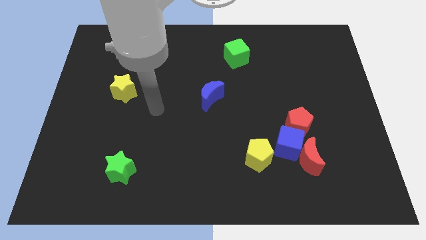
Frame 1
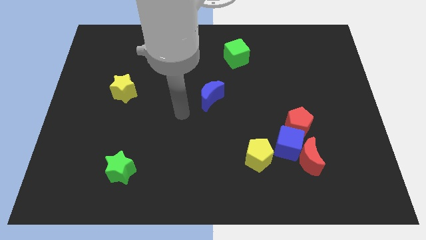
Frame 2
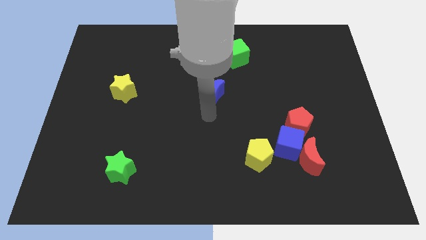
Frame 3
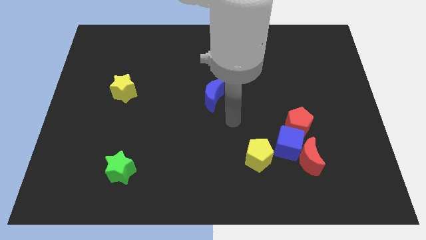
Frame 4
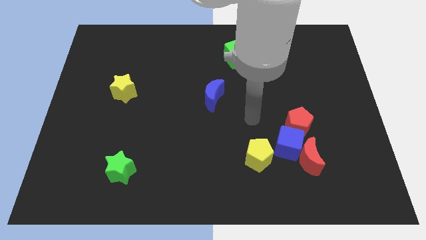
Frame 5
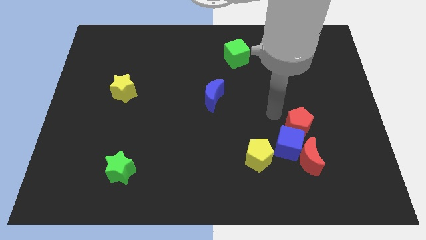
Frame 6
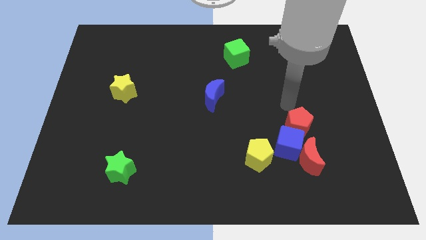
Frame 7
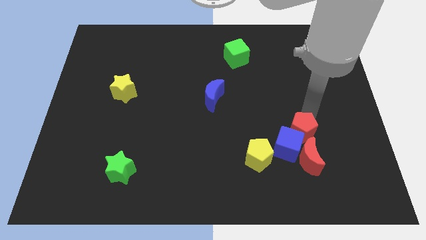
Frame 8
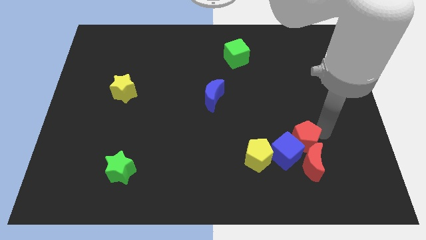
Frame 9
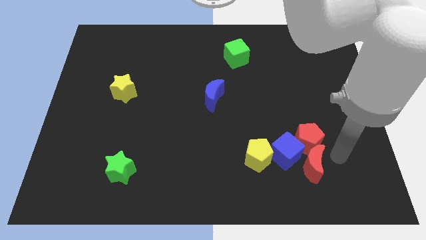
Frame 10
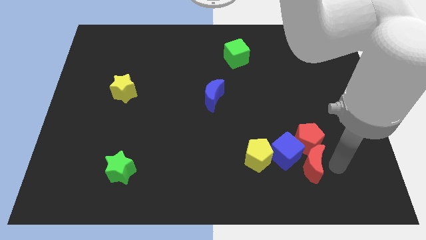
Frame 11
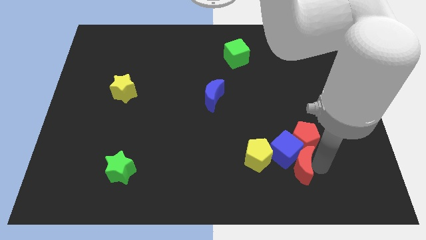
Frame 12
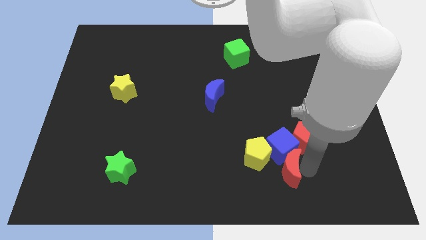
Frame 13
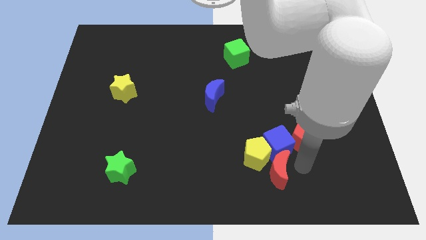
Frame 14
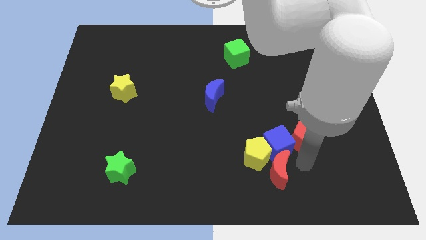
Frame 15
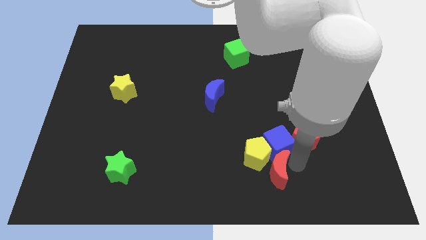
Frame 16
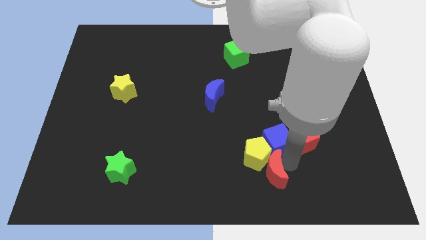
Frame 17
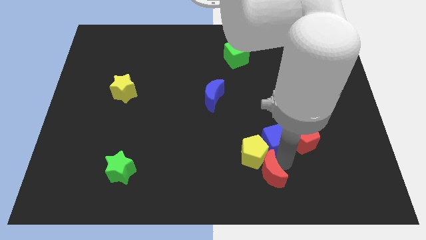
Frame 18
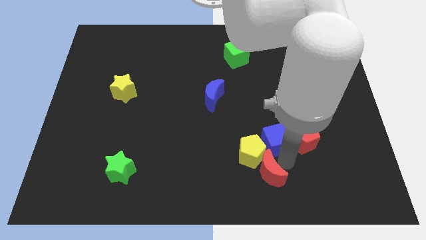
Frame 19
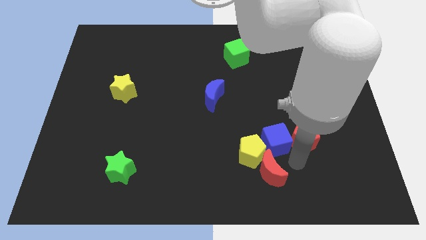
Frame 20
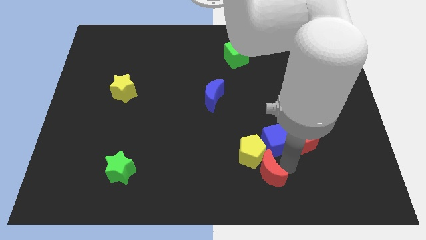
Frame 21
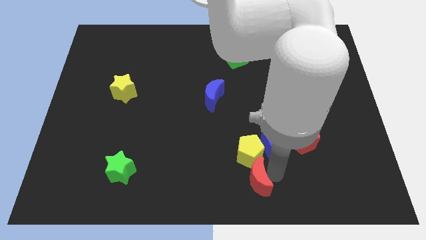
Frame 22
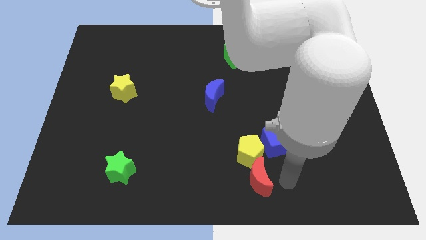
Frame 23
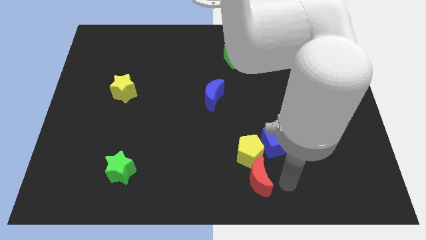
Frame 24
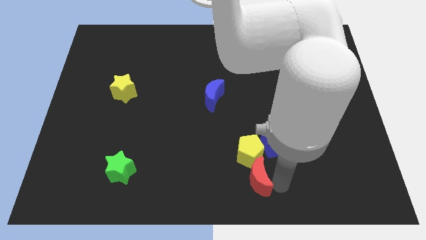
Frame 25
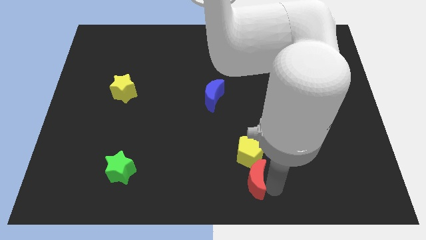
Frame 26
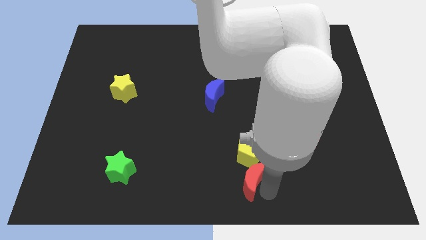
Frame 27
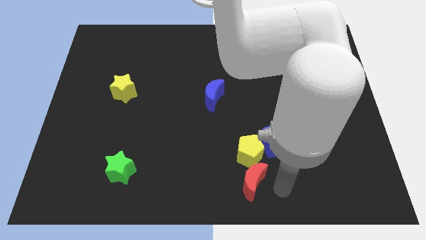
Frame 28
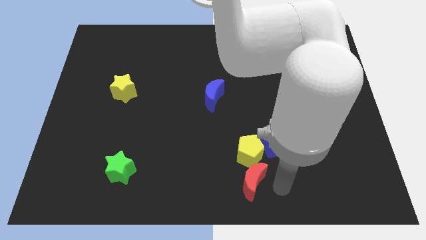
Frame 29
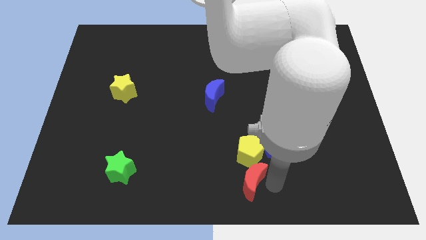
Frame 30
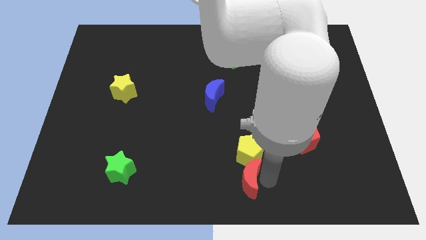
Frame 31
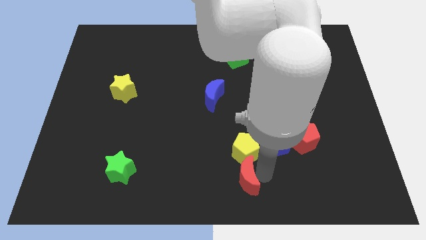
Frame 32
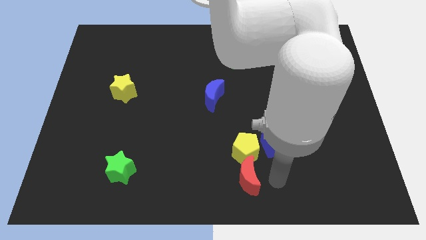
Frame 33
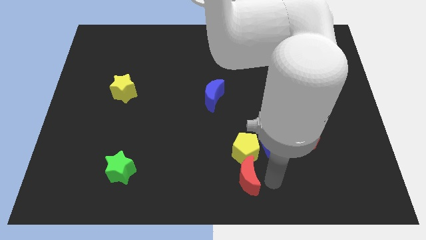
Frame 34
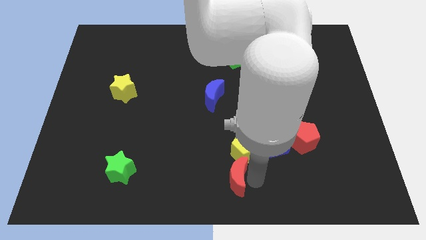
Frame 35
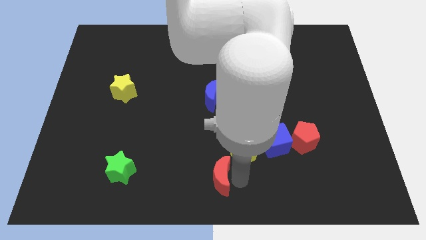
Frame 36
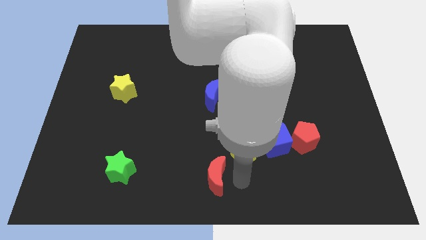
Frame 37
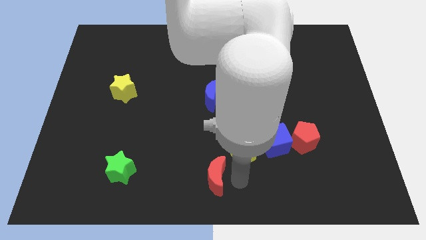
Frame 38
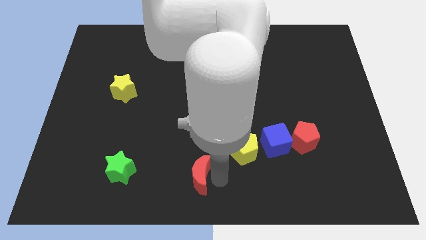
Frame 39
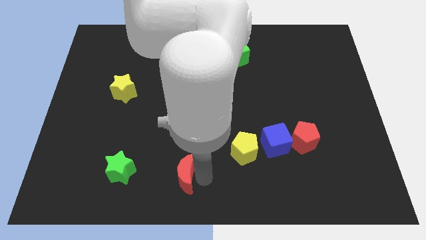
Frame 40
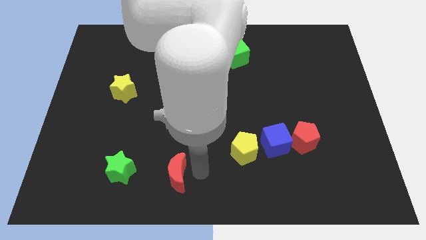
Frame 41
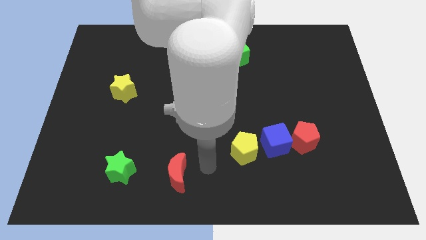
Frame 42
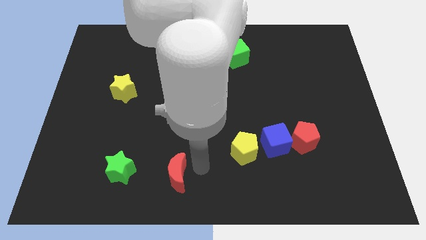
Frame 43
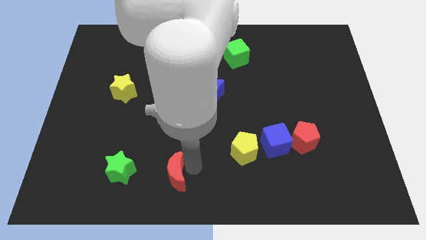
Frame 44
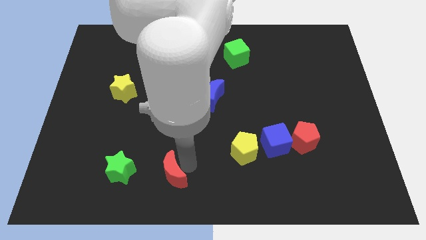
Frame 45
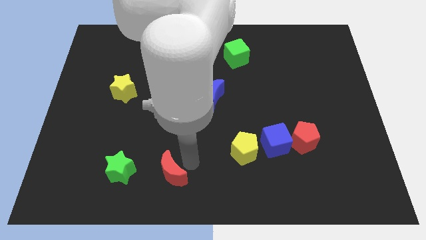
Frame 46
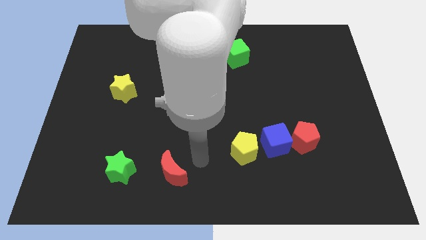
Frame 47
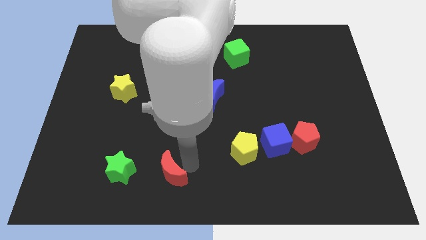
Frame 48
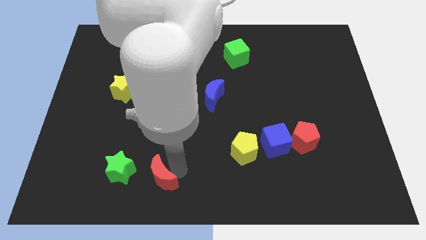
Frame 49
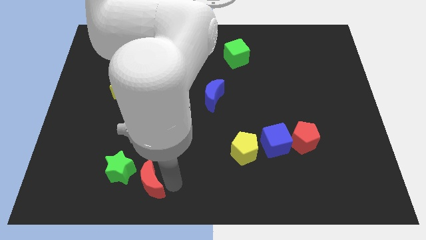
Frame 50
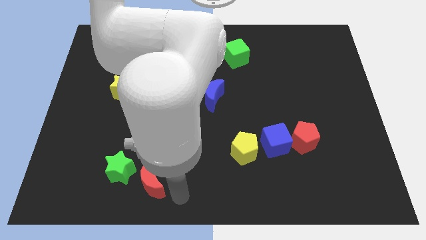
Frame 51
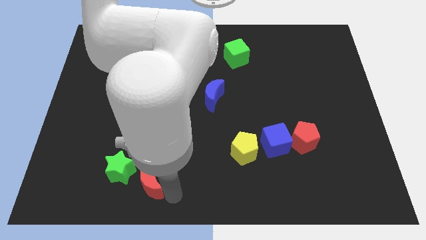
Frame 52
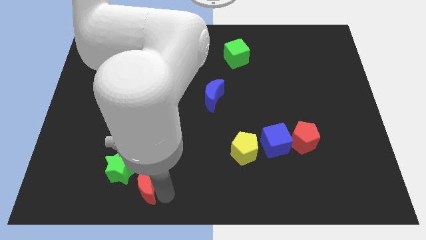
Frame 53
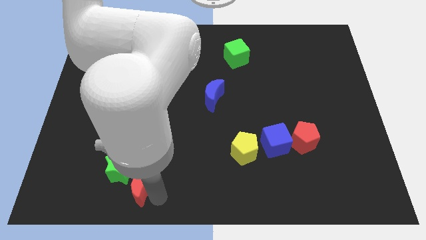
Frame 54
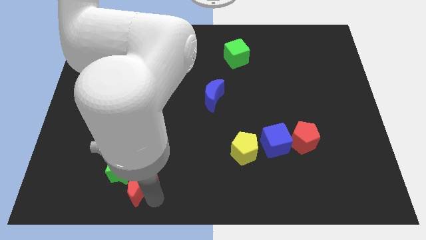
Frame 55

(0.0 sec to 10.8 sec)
put the red moon towards the green star

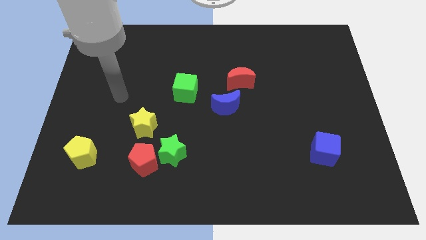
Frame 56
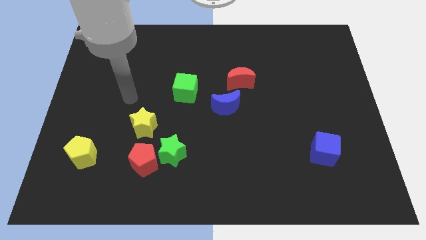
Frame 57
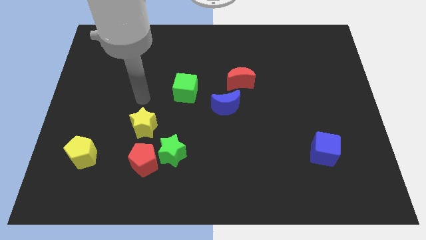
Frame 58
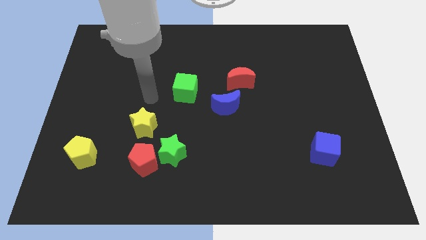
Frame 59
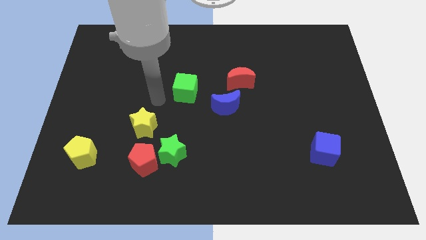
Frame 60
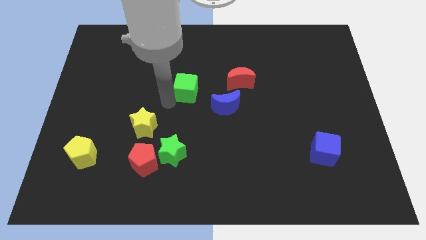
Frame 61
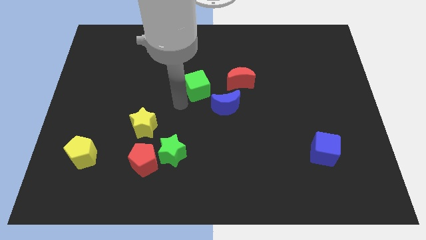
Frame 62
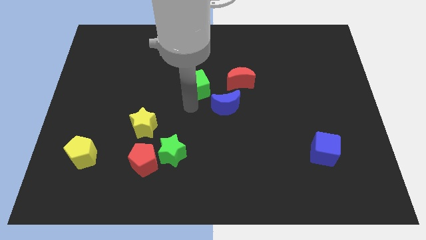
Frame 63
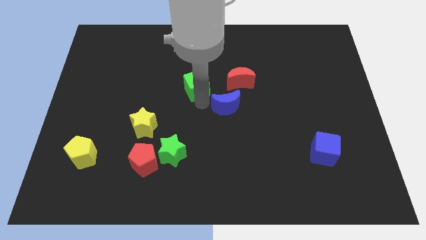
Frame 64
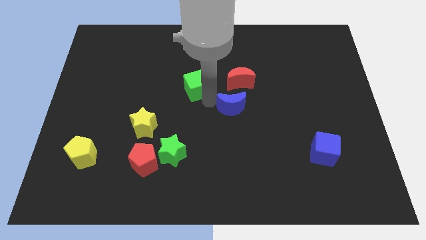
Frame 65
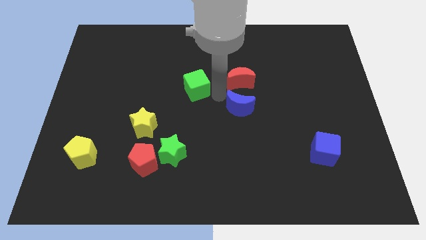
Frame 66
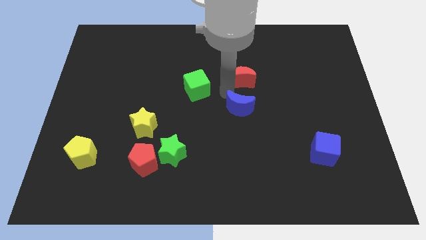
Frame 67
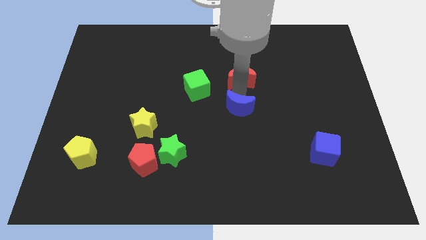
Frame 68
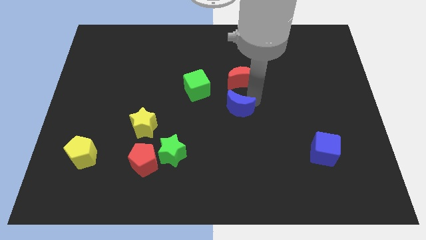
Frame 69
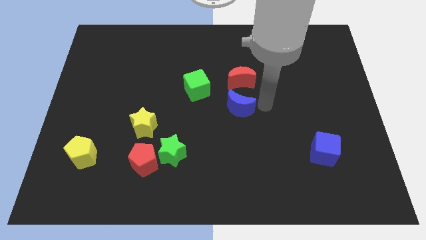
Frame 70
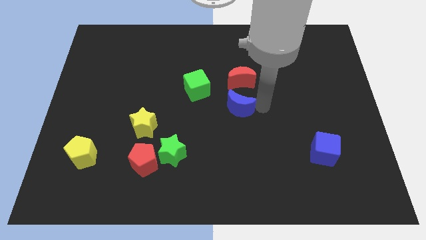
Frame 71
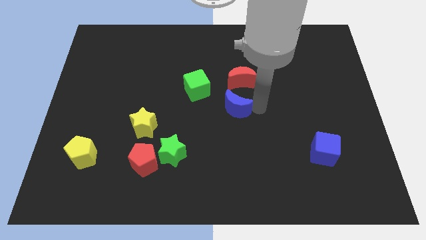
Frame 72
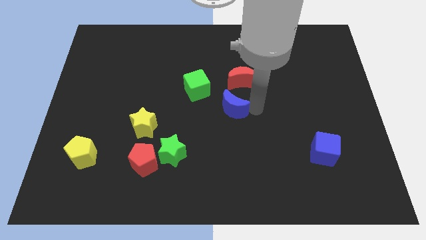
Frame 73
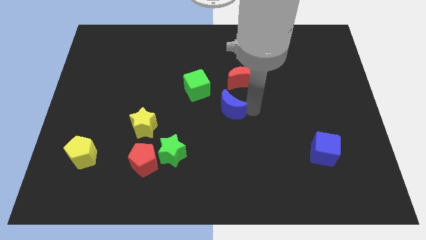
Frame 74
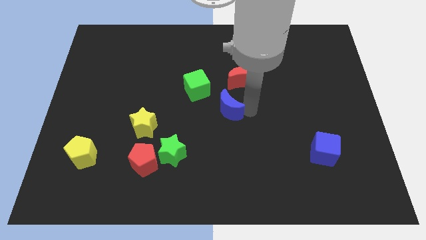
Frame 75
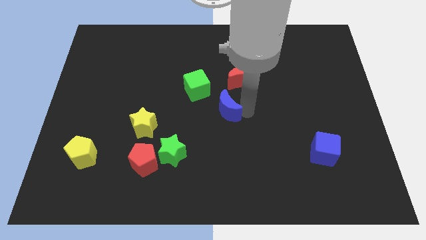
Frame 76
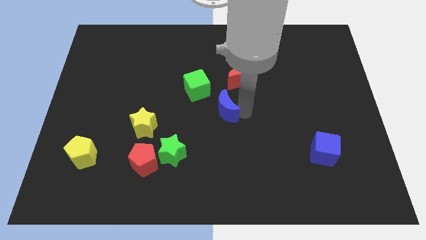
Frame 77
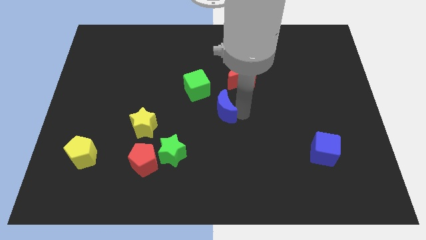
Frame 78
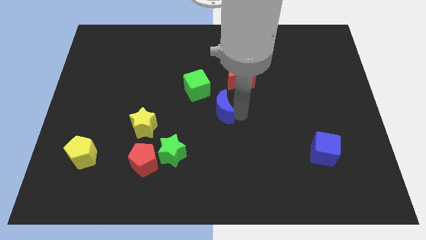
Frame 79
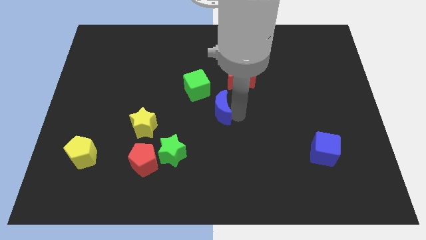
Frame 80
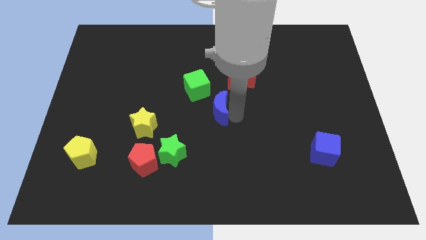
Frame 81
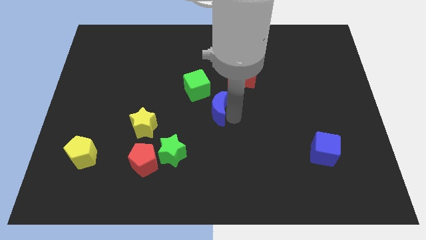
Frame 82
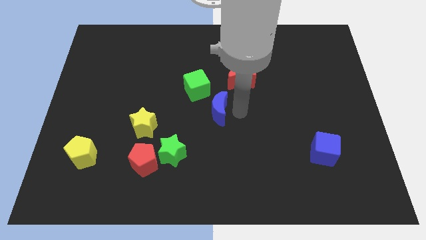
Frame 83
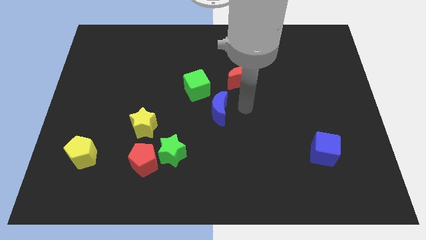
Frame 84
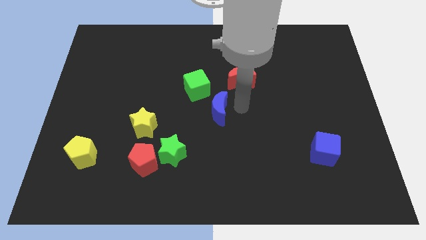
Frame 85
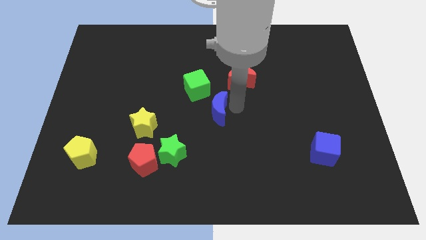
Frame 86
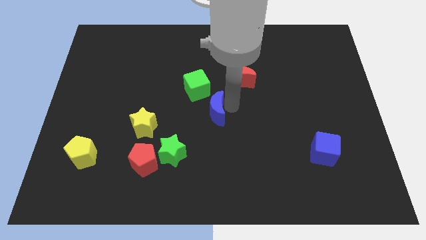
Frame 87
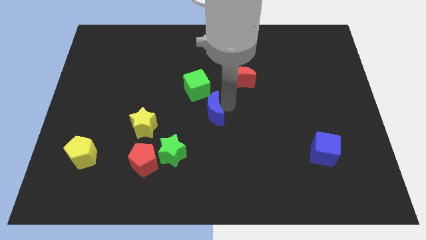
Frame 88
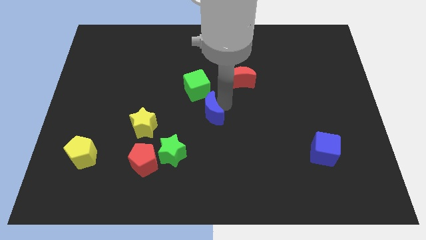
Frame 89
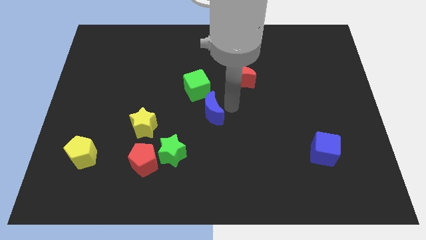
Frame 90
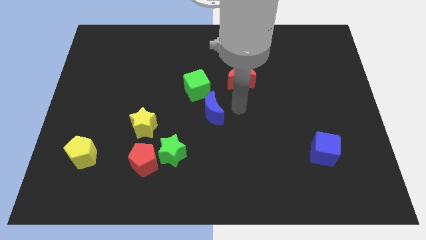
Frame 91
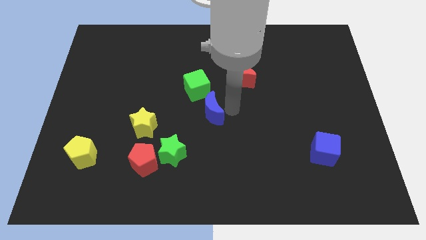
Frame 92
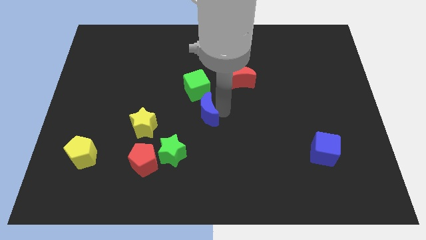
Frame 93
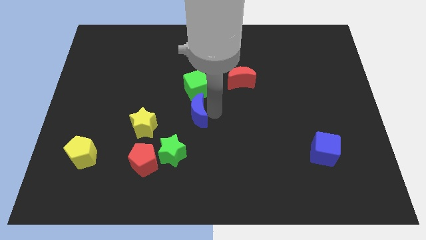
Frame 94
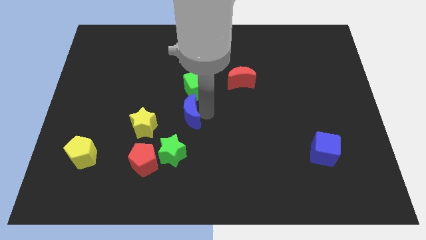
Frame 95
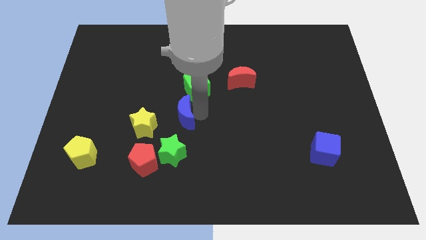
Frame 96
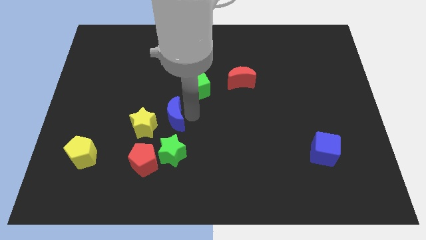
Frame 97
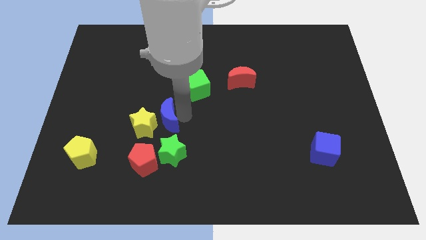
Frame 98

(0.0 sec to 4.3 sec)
move the blue moon close to the yellow star
